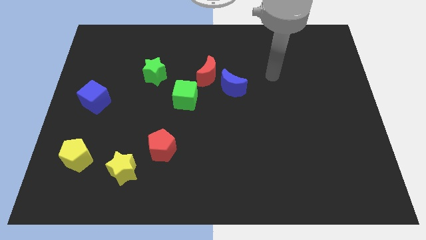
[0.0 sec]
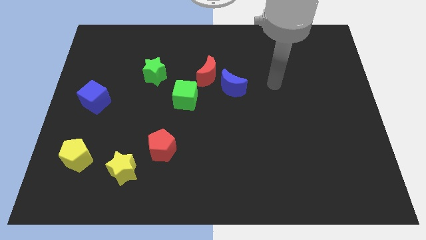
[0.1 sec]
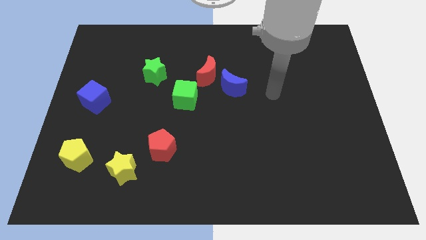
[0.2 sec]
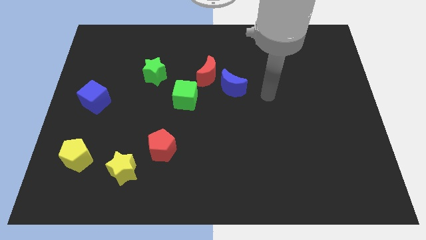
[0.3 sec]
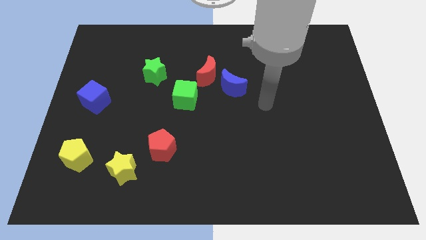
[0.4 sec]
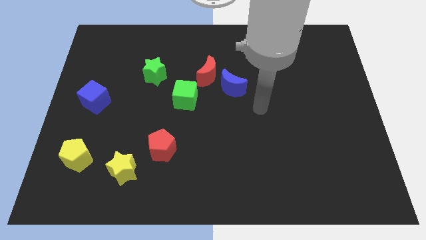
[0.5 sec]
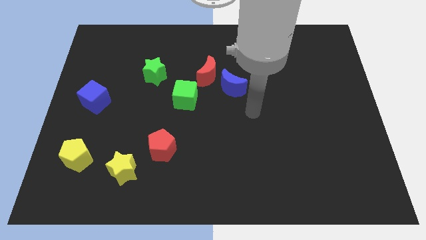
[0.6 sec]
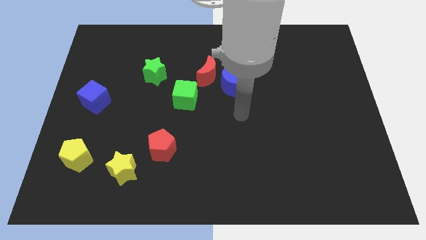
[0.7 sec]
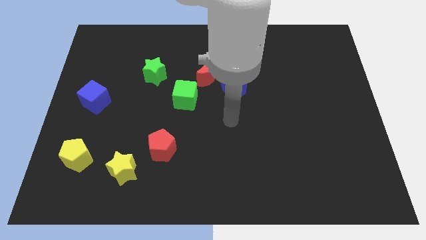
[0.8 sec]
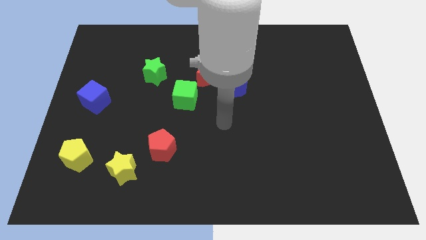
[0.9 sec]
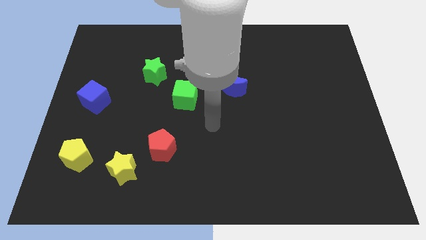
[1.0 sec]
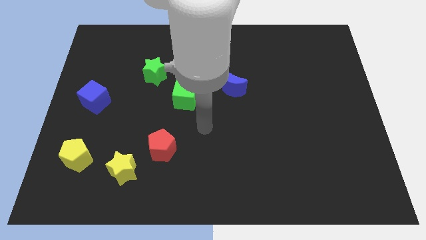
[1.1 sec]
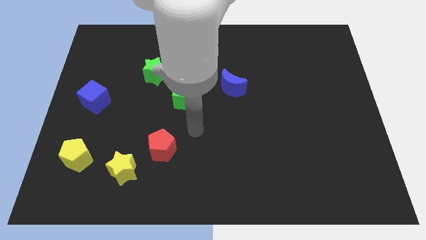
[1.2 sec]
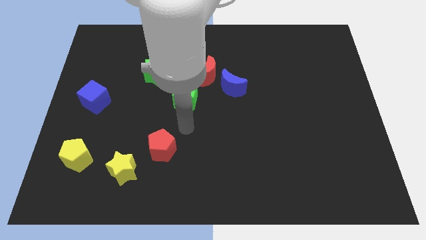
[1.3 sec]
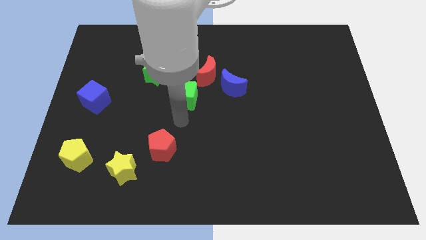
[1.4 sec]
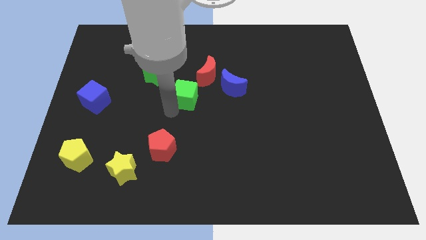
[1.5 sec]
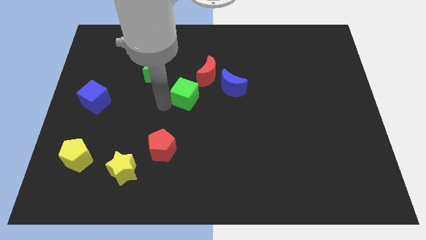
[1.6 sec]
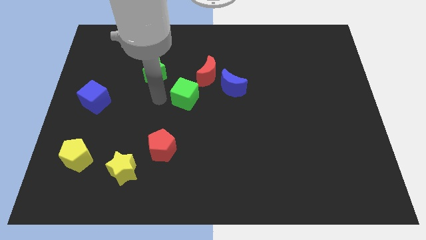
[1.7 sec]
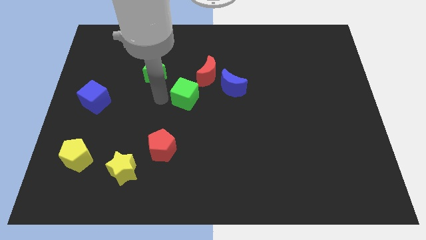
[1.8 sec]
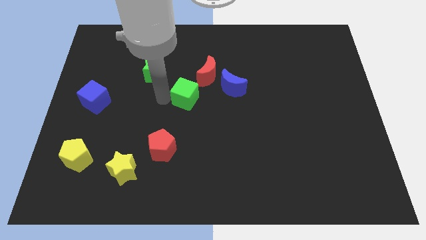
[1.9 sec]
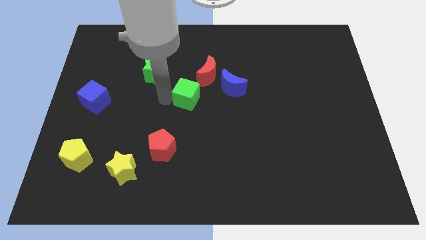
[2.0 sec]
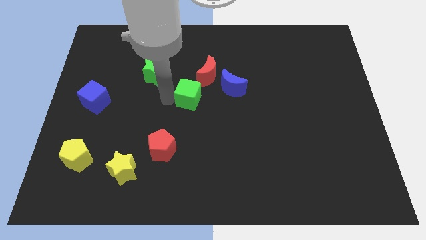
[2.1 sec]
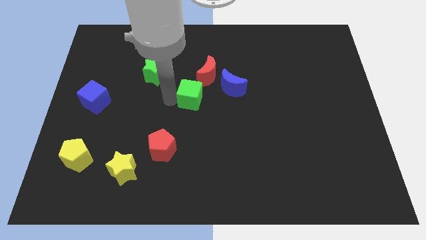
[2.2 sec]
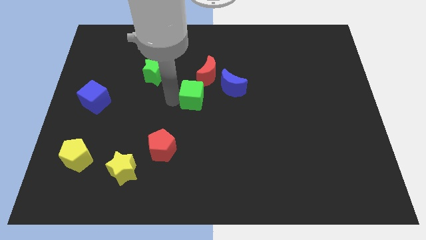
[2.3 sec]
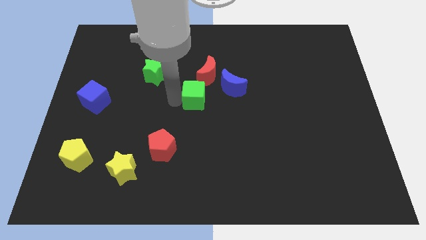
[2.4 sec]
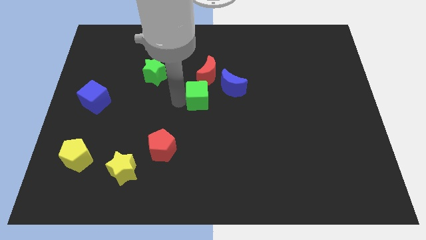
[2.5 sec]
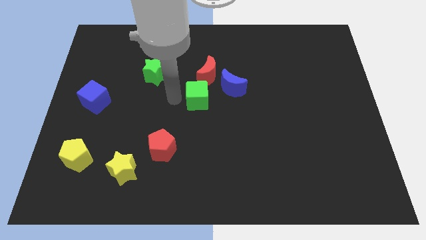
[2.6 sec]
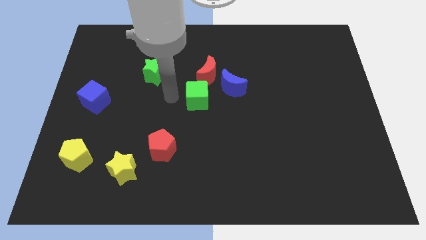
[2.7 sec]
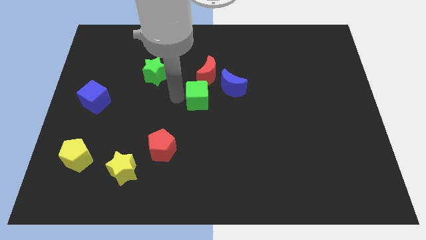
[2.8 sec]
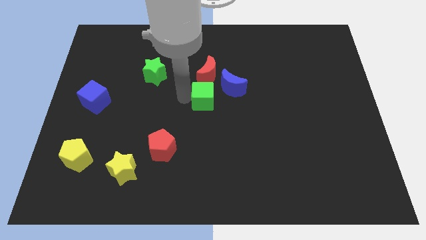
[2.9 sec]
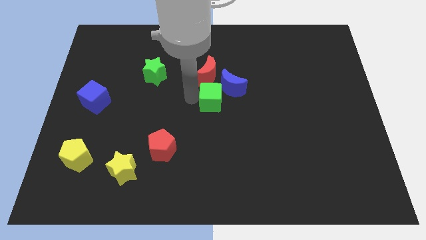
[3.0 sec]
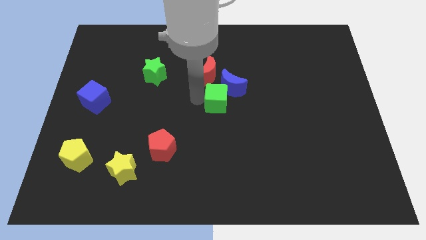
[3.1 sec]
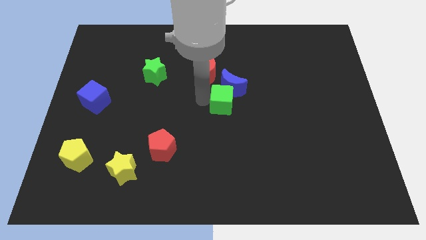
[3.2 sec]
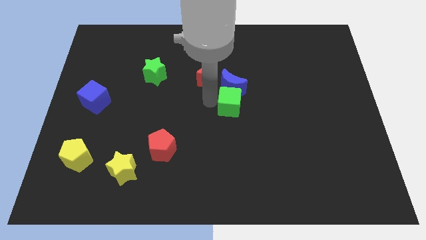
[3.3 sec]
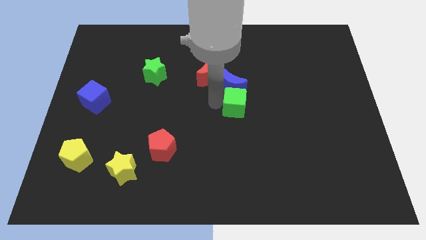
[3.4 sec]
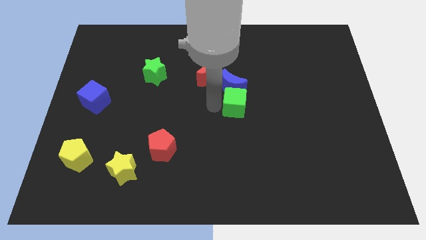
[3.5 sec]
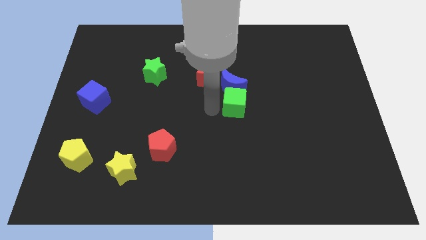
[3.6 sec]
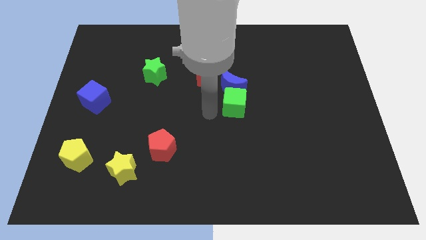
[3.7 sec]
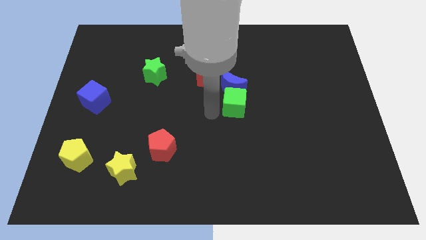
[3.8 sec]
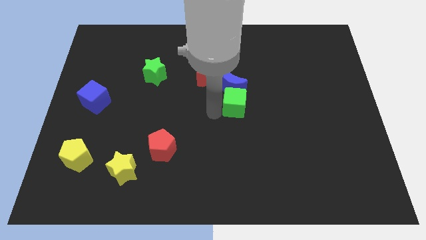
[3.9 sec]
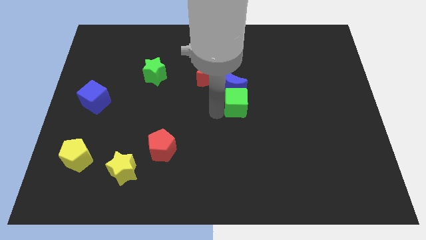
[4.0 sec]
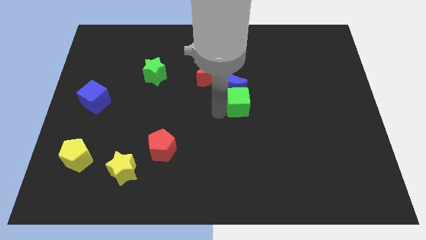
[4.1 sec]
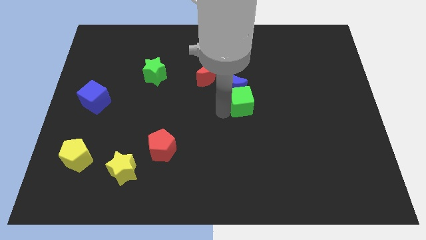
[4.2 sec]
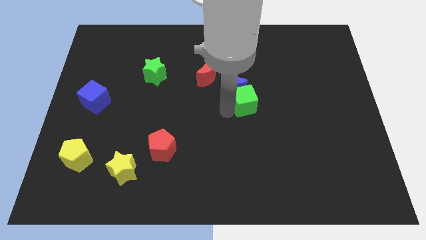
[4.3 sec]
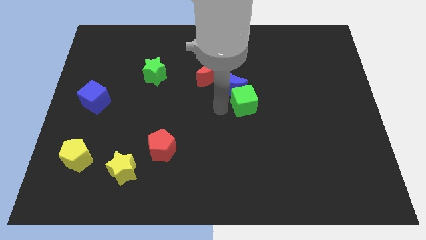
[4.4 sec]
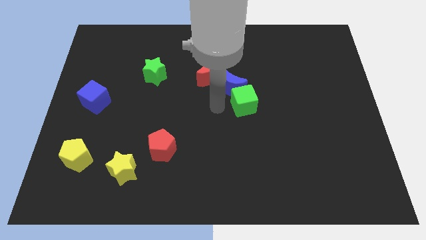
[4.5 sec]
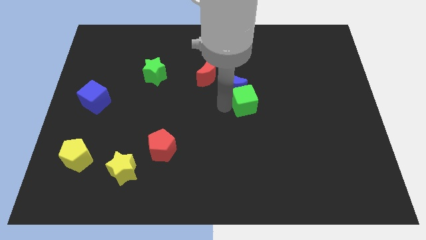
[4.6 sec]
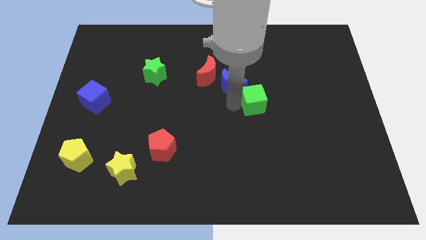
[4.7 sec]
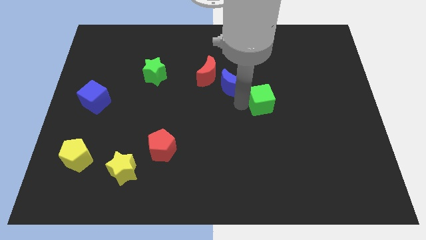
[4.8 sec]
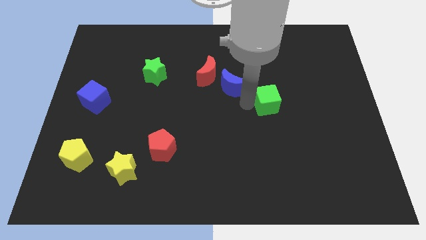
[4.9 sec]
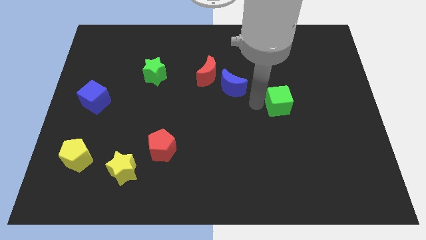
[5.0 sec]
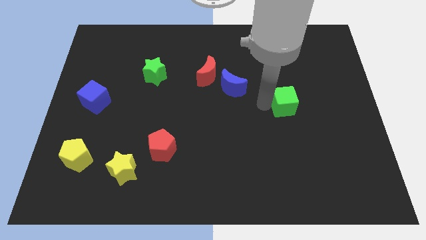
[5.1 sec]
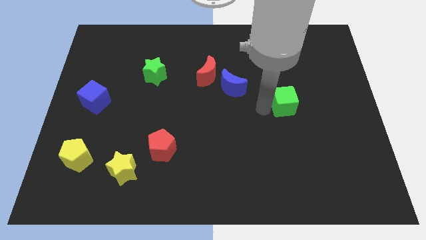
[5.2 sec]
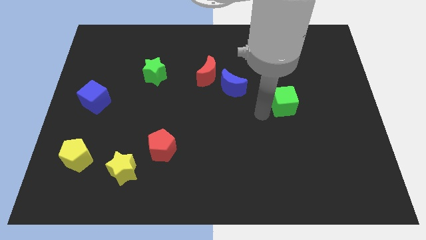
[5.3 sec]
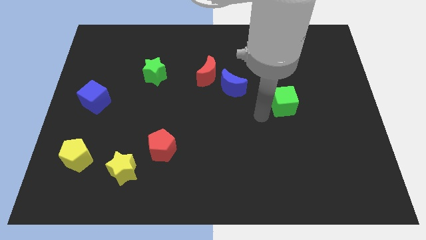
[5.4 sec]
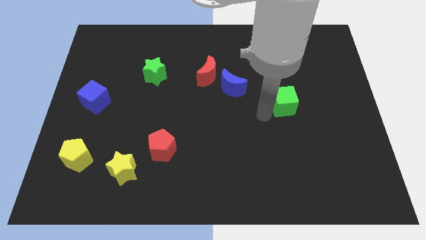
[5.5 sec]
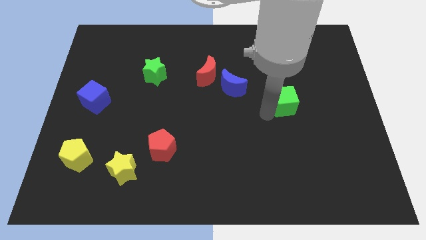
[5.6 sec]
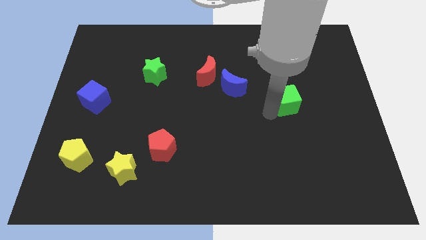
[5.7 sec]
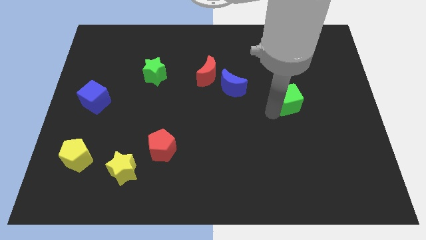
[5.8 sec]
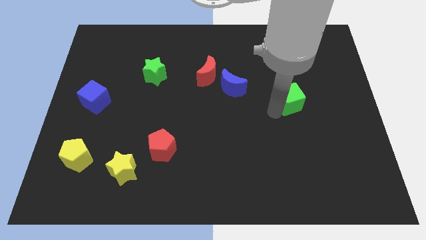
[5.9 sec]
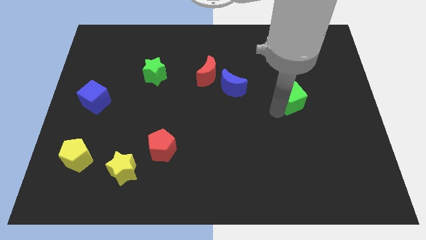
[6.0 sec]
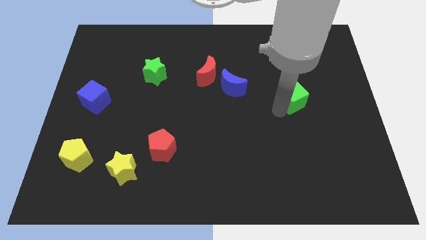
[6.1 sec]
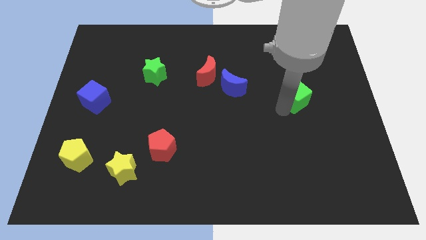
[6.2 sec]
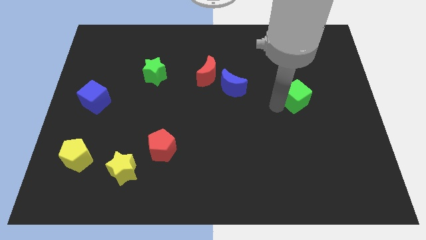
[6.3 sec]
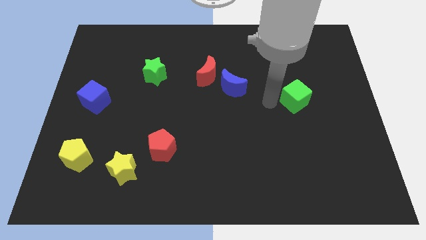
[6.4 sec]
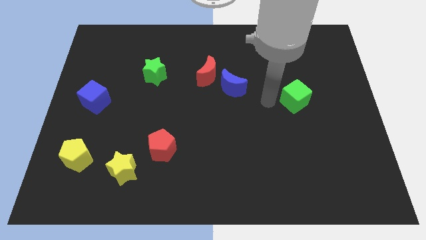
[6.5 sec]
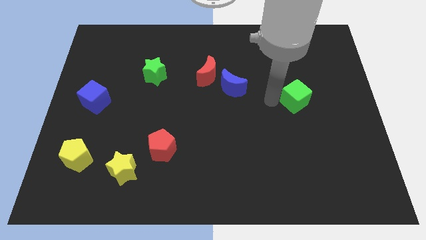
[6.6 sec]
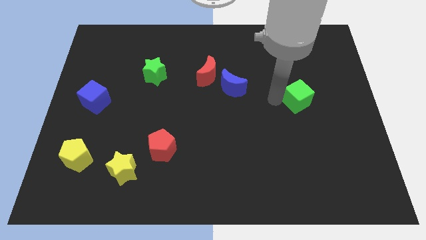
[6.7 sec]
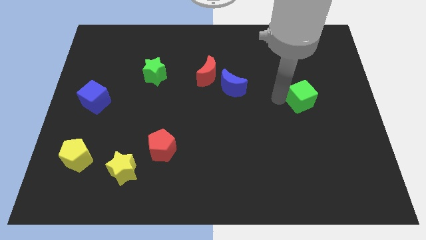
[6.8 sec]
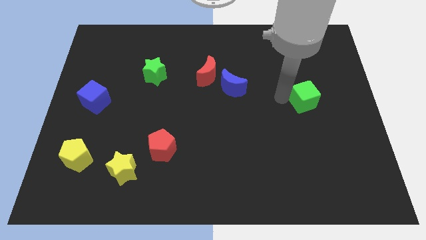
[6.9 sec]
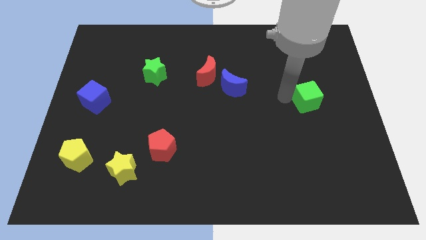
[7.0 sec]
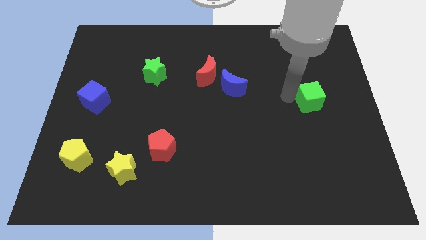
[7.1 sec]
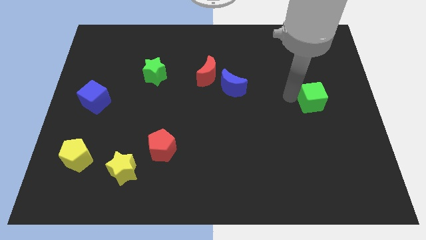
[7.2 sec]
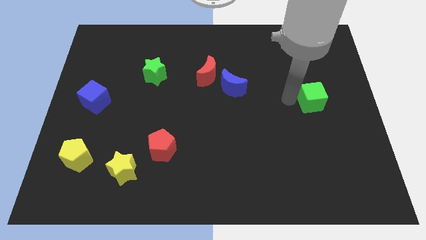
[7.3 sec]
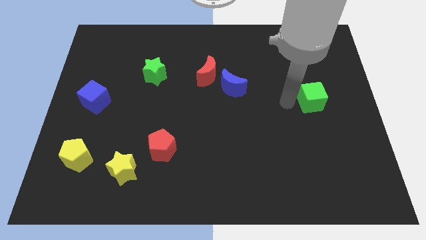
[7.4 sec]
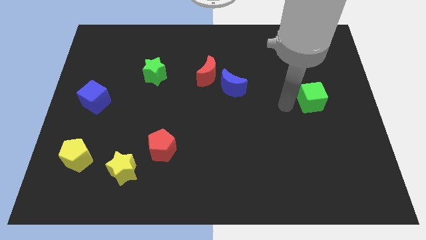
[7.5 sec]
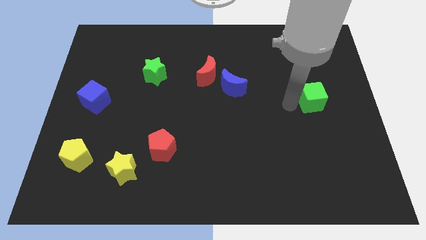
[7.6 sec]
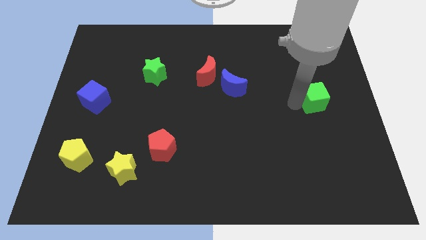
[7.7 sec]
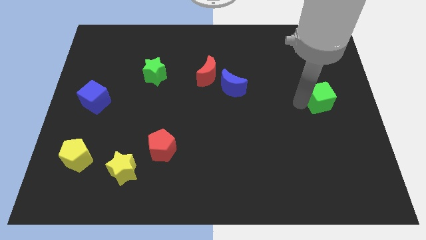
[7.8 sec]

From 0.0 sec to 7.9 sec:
move the green cube to the right side
